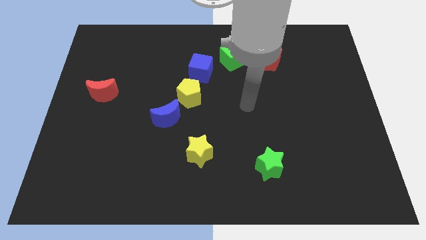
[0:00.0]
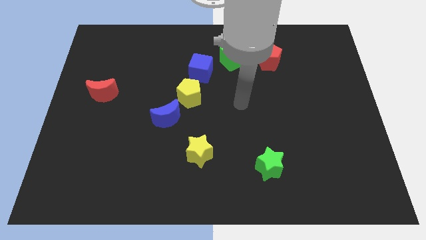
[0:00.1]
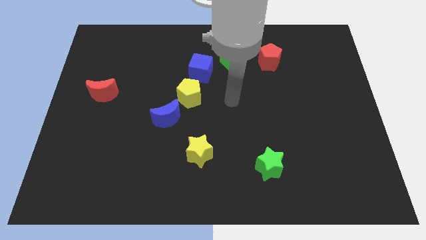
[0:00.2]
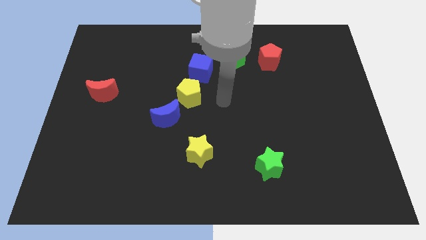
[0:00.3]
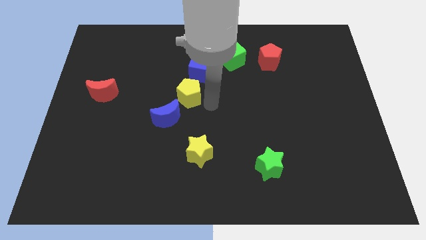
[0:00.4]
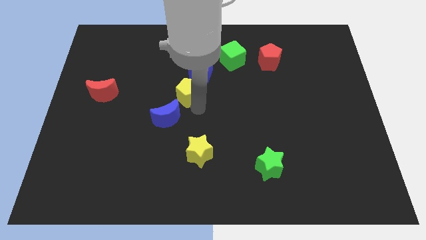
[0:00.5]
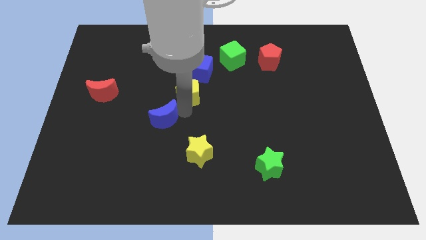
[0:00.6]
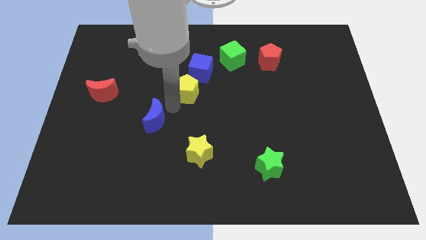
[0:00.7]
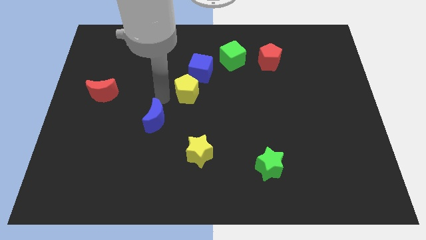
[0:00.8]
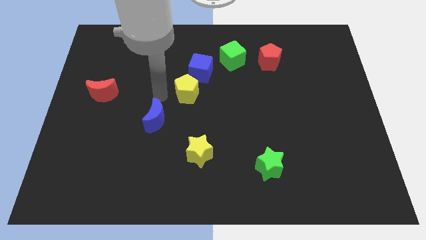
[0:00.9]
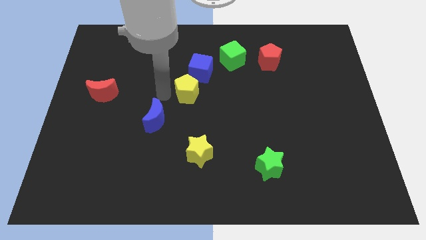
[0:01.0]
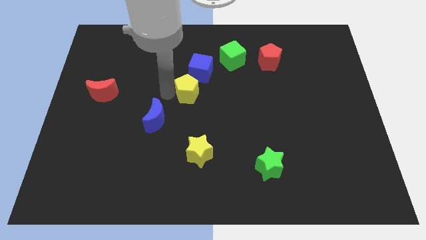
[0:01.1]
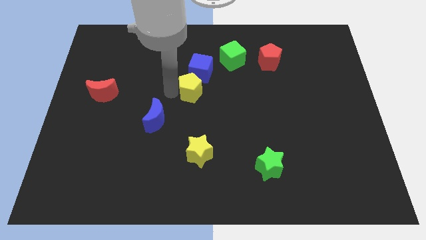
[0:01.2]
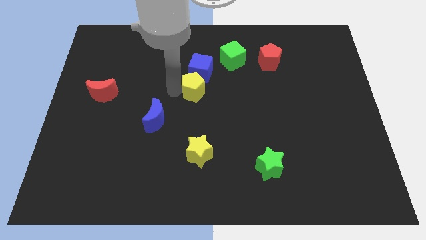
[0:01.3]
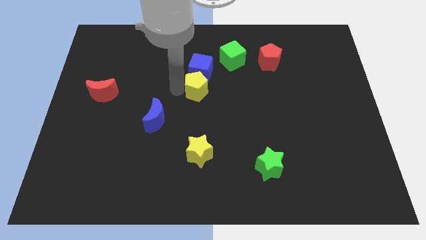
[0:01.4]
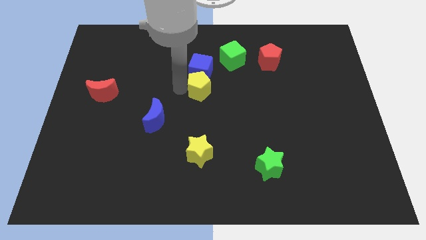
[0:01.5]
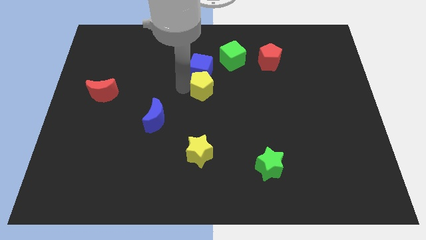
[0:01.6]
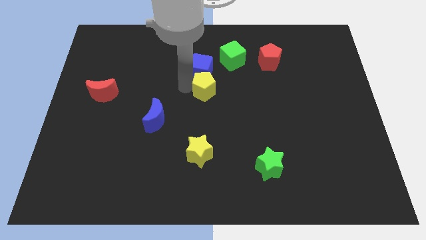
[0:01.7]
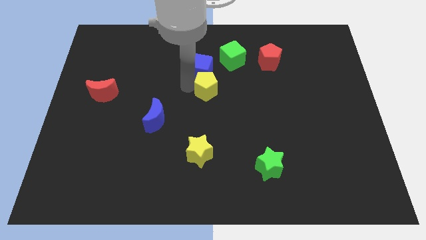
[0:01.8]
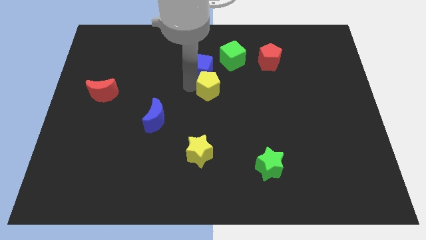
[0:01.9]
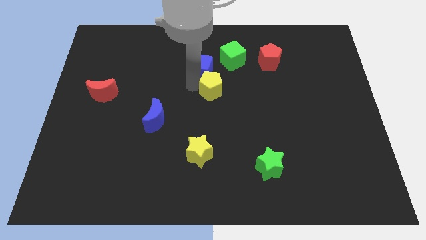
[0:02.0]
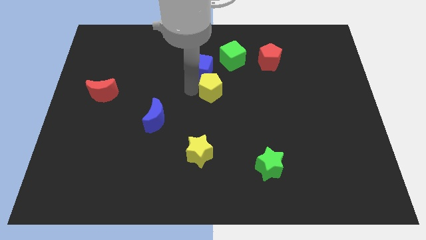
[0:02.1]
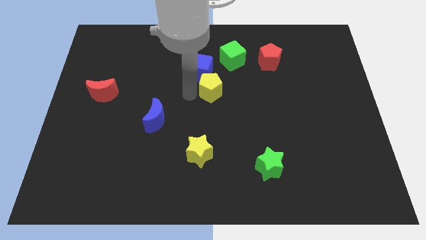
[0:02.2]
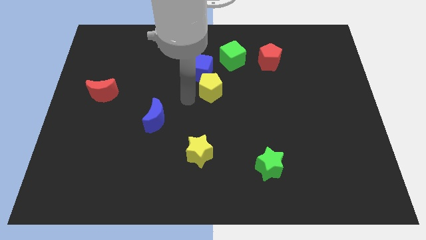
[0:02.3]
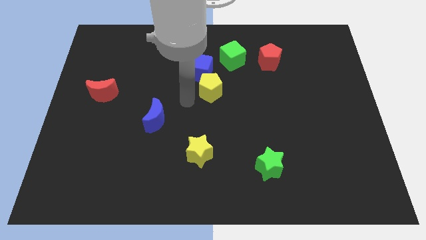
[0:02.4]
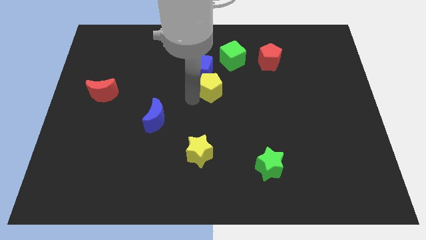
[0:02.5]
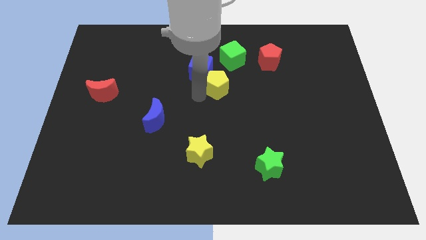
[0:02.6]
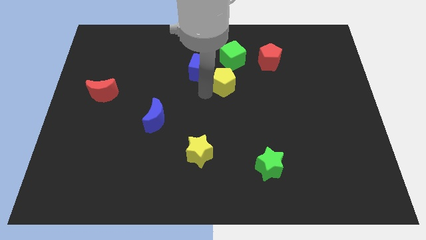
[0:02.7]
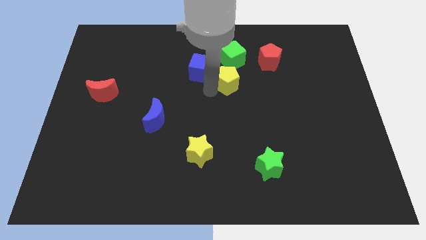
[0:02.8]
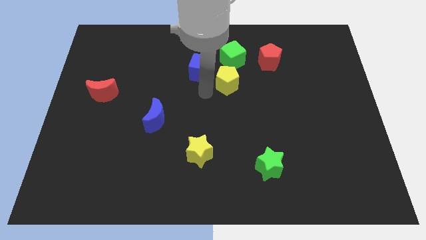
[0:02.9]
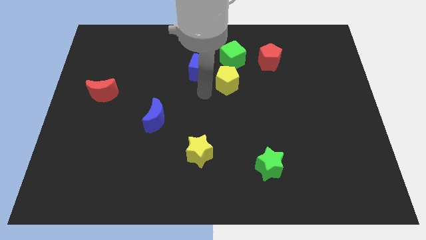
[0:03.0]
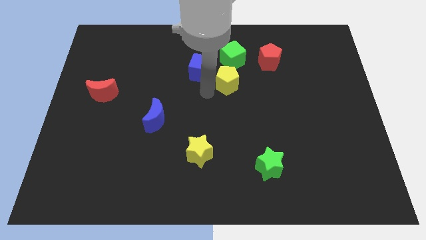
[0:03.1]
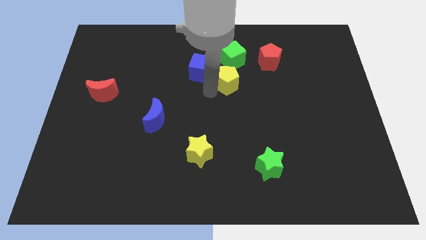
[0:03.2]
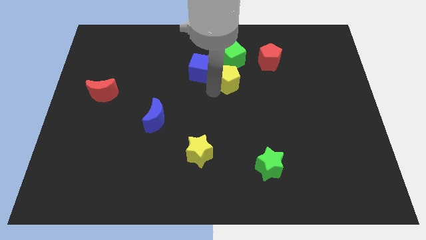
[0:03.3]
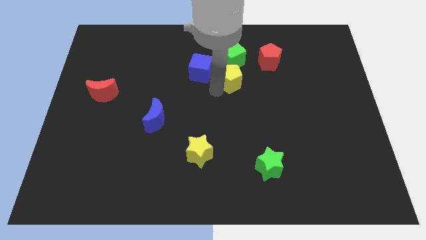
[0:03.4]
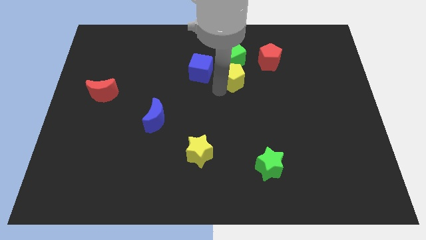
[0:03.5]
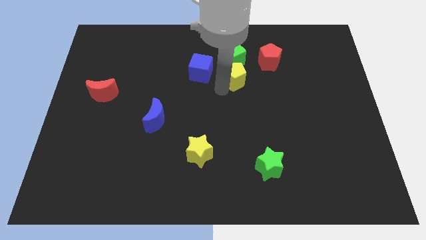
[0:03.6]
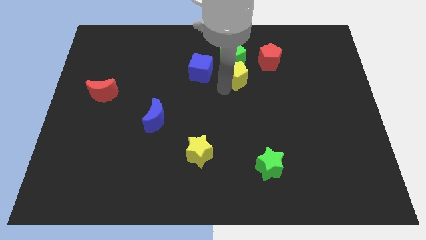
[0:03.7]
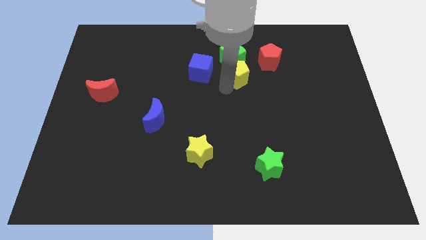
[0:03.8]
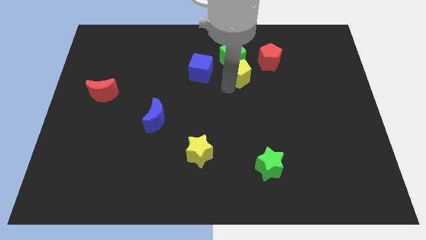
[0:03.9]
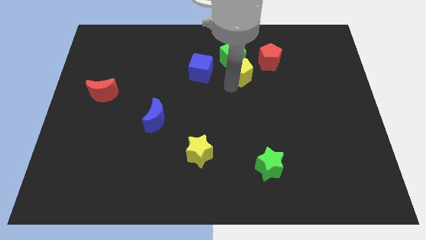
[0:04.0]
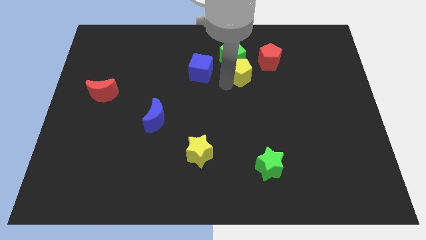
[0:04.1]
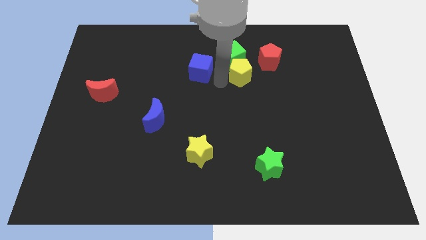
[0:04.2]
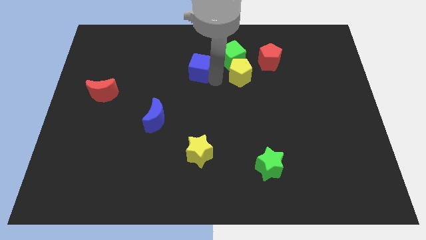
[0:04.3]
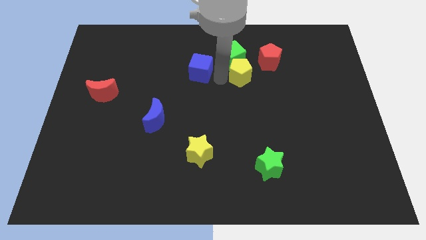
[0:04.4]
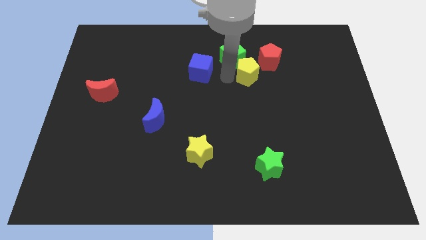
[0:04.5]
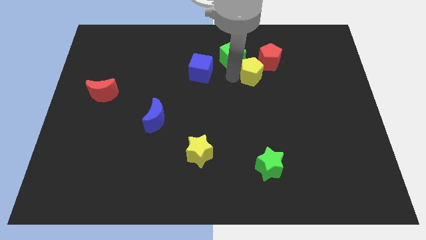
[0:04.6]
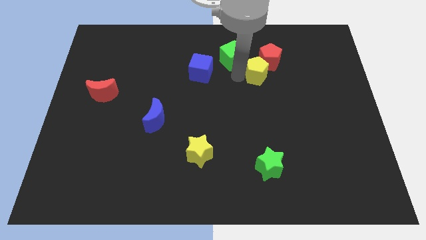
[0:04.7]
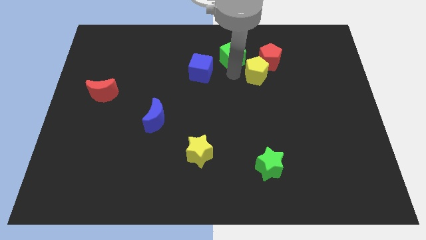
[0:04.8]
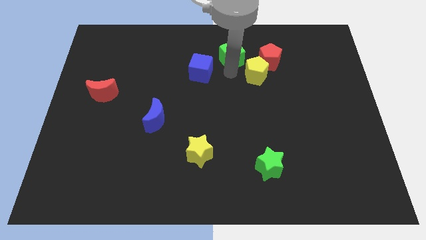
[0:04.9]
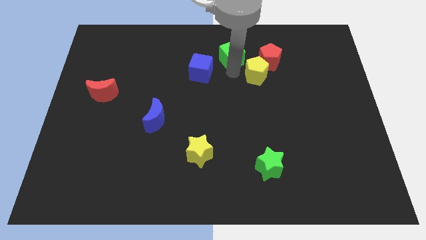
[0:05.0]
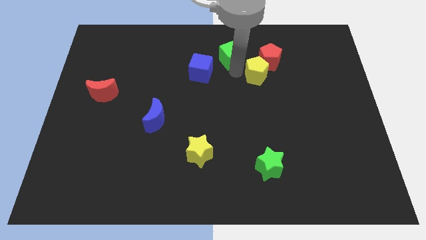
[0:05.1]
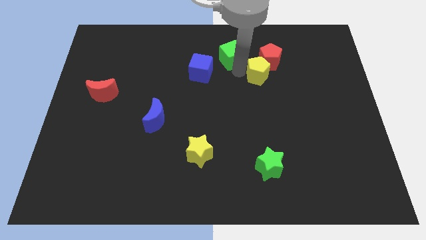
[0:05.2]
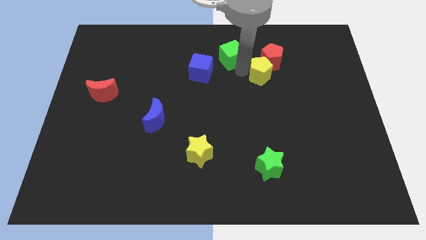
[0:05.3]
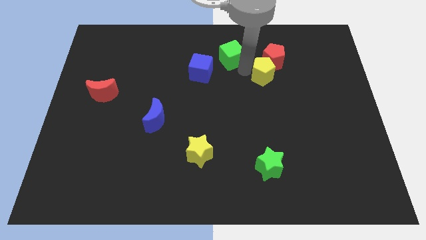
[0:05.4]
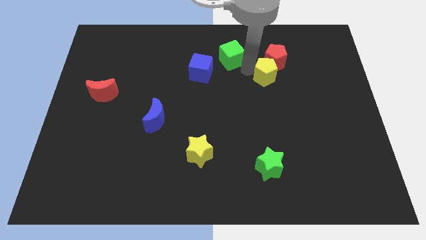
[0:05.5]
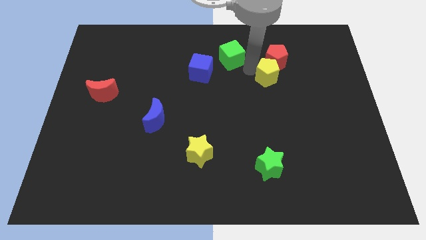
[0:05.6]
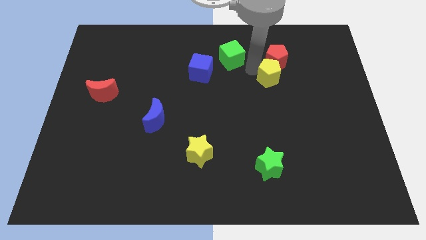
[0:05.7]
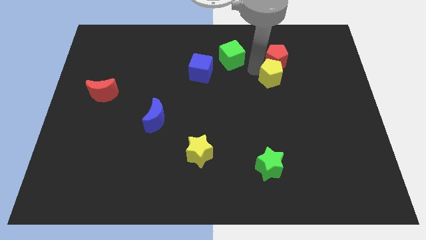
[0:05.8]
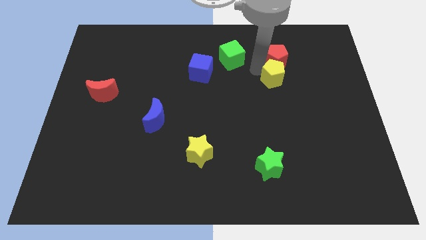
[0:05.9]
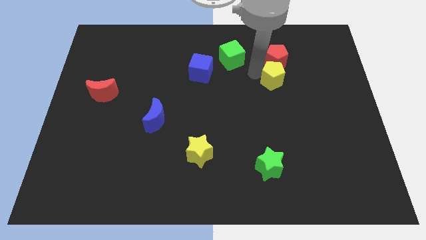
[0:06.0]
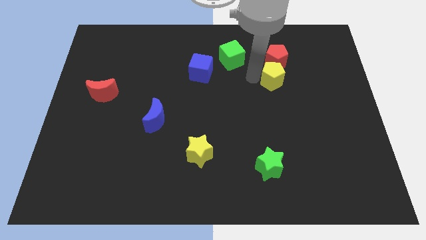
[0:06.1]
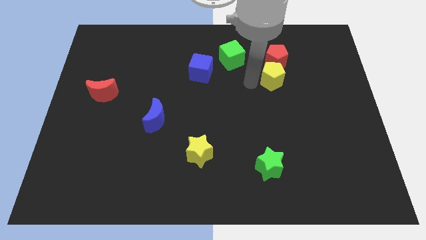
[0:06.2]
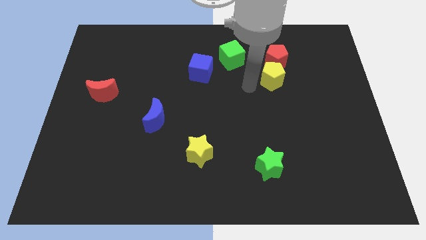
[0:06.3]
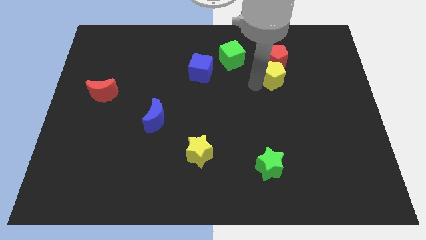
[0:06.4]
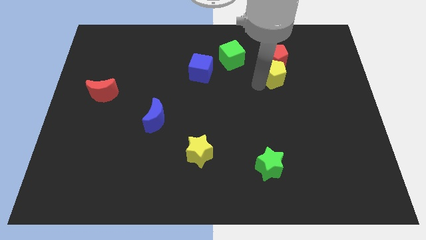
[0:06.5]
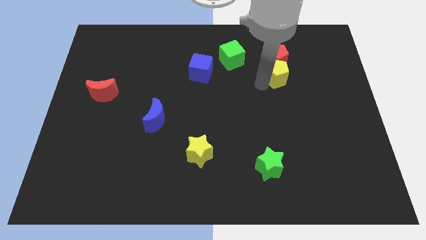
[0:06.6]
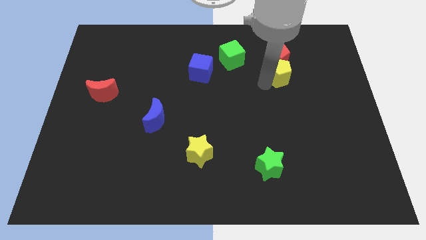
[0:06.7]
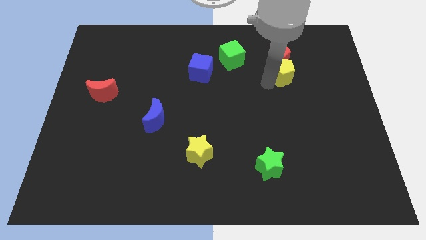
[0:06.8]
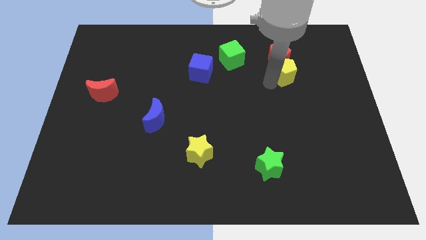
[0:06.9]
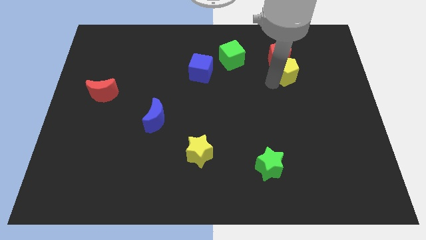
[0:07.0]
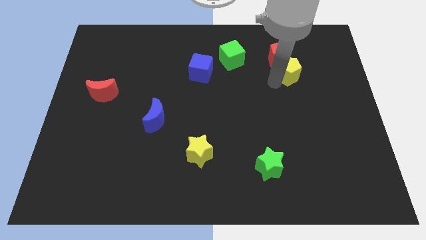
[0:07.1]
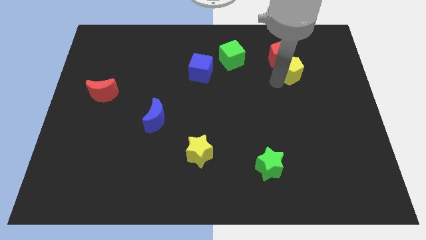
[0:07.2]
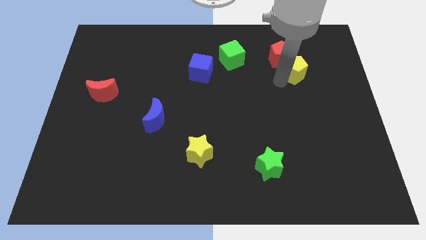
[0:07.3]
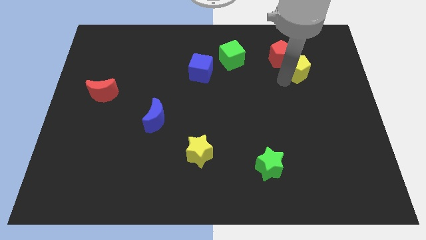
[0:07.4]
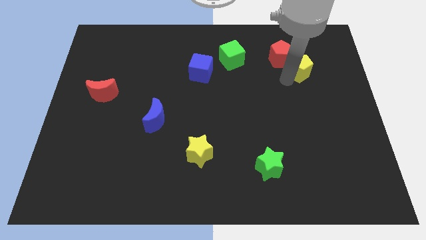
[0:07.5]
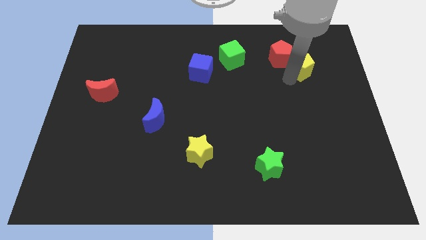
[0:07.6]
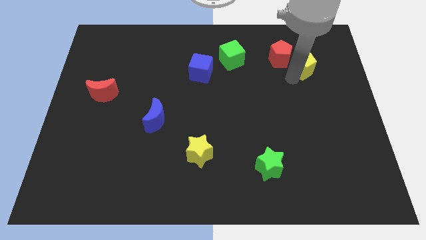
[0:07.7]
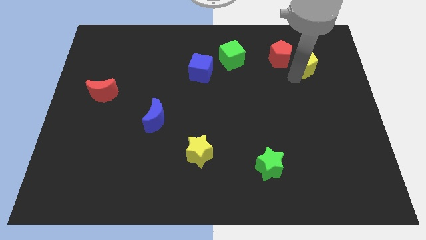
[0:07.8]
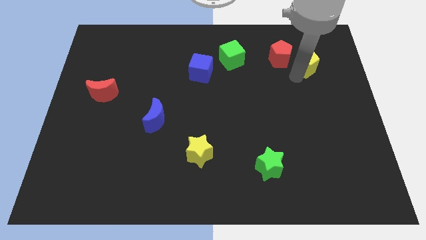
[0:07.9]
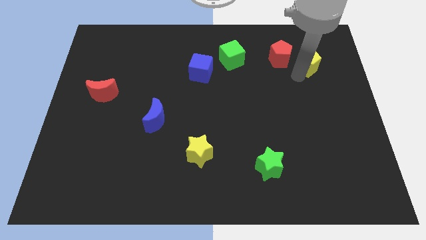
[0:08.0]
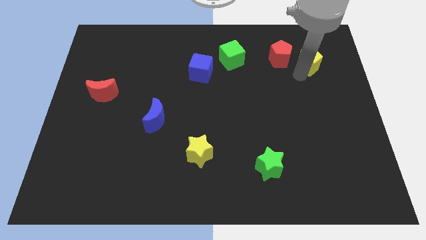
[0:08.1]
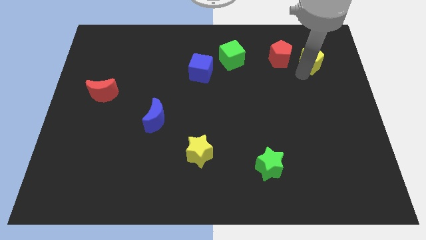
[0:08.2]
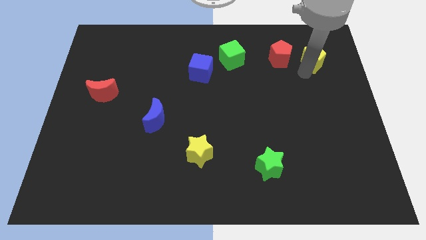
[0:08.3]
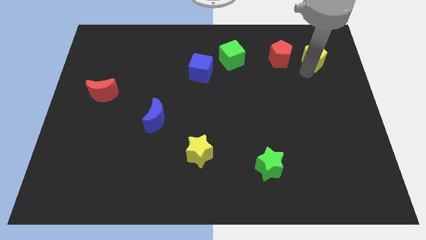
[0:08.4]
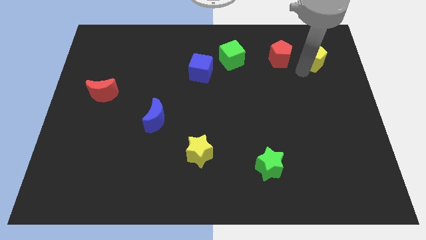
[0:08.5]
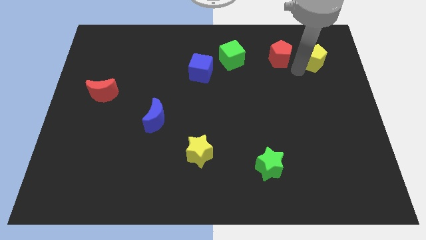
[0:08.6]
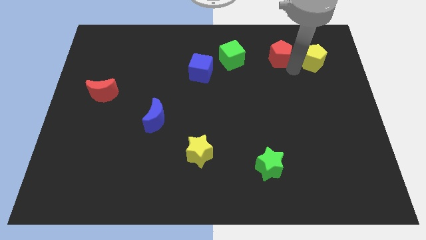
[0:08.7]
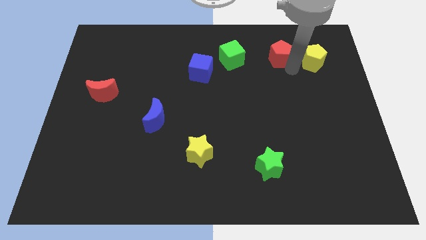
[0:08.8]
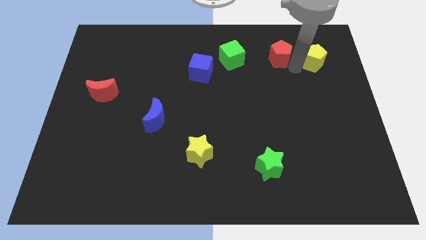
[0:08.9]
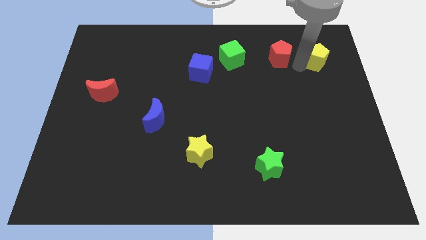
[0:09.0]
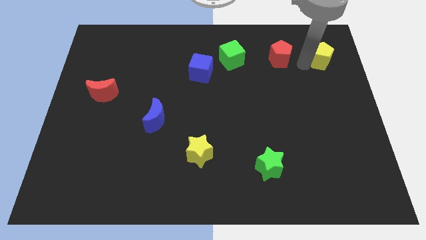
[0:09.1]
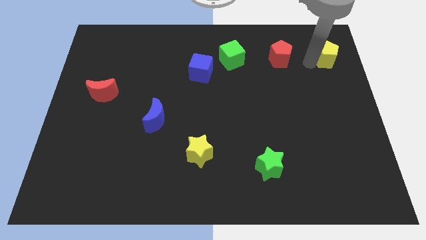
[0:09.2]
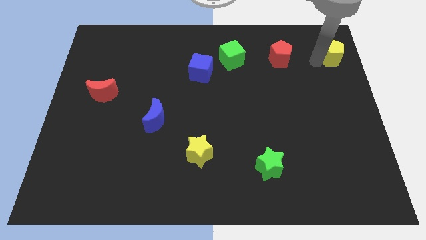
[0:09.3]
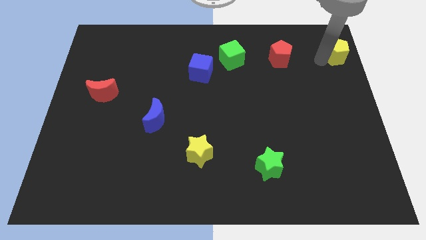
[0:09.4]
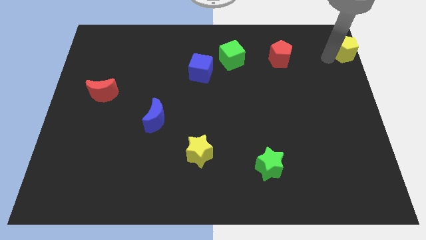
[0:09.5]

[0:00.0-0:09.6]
put the yellow pentagon to the top right of the board
